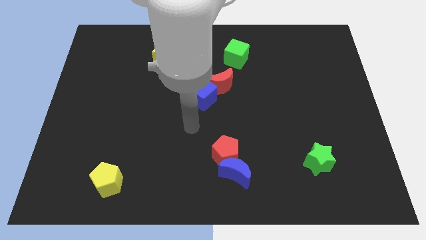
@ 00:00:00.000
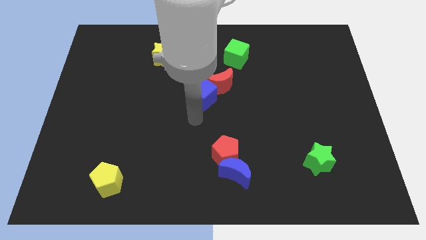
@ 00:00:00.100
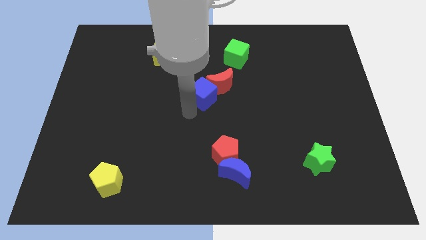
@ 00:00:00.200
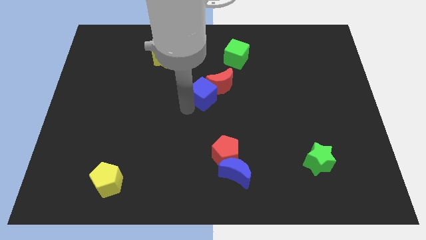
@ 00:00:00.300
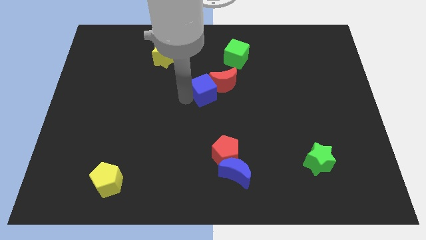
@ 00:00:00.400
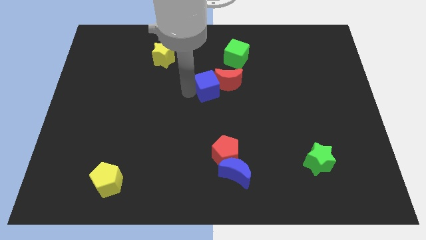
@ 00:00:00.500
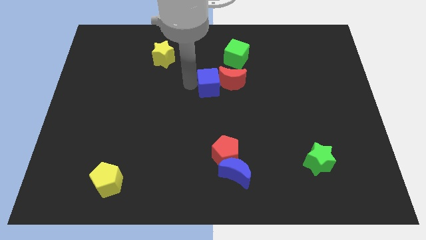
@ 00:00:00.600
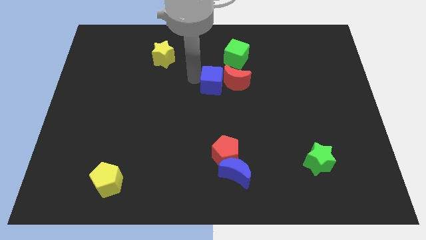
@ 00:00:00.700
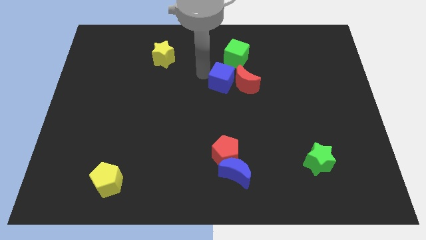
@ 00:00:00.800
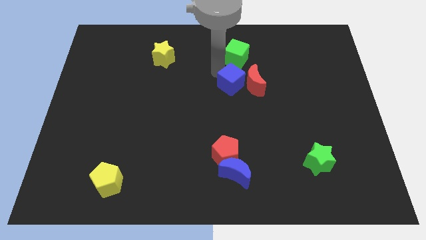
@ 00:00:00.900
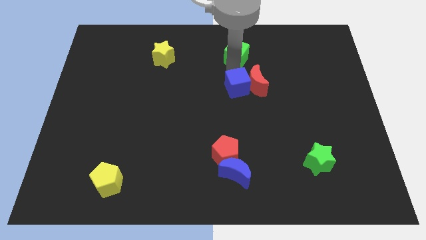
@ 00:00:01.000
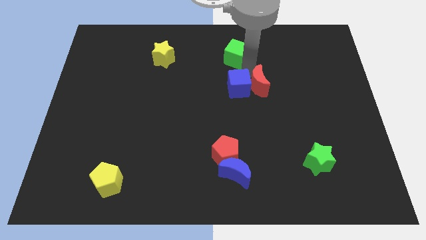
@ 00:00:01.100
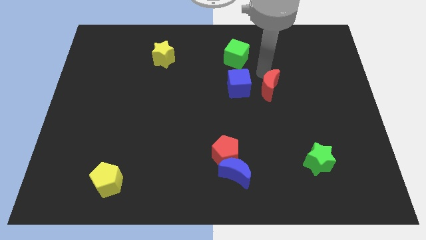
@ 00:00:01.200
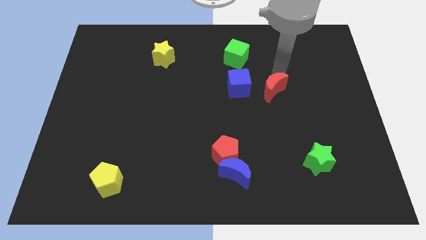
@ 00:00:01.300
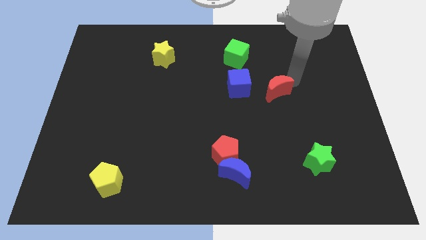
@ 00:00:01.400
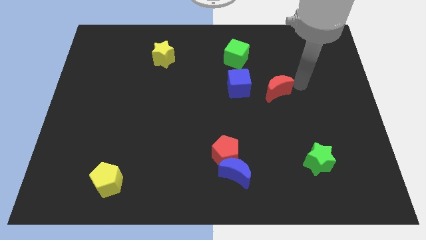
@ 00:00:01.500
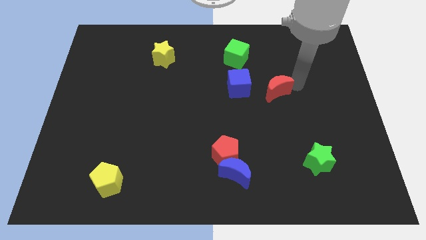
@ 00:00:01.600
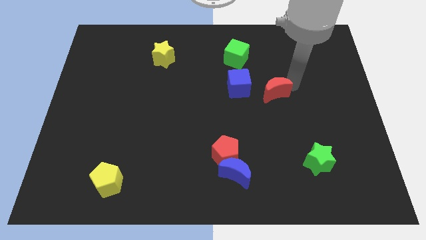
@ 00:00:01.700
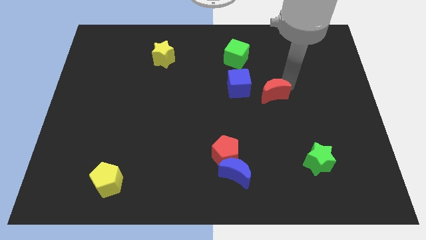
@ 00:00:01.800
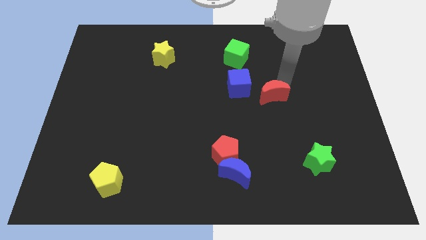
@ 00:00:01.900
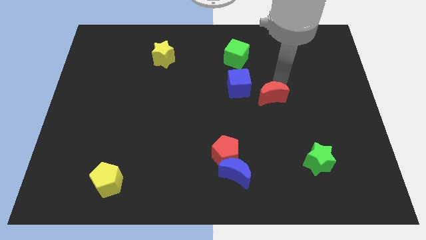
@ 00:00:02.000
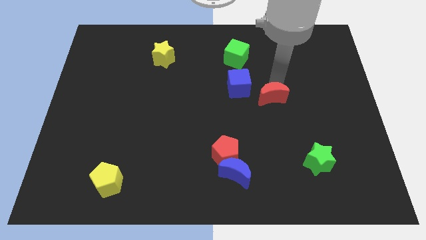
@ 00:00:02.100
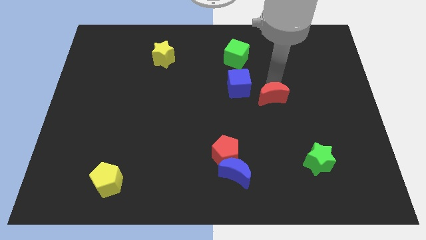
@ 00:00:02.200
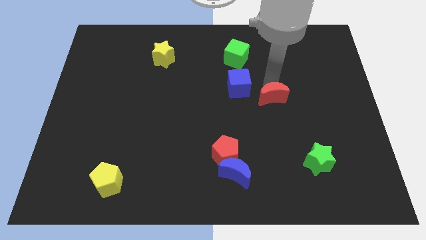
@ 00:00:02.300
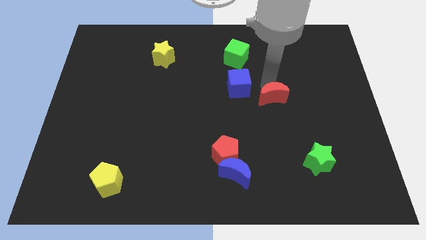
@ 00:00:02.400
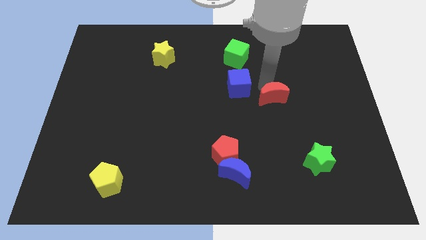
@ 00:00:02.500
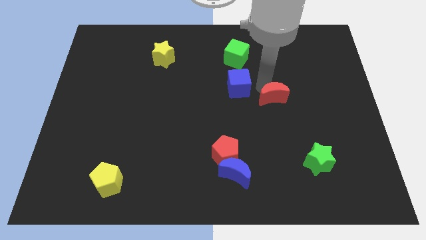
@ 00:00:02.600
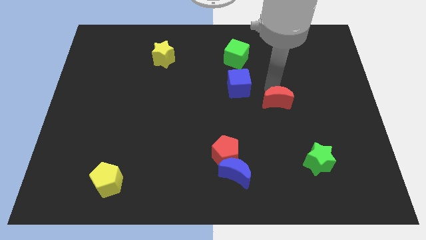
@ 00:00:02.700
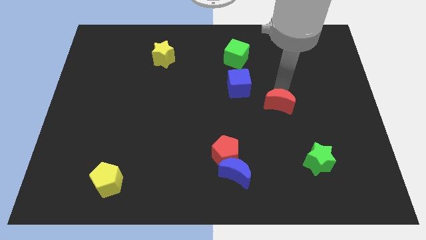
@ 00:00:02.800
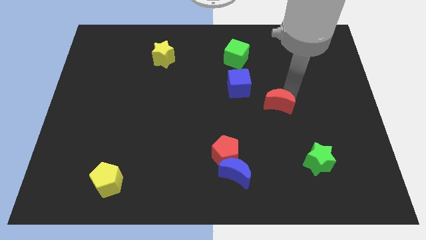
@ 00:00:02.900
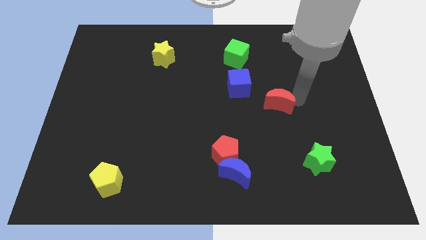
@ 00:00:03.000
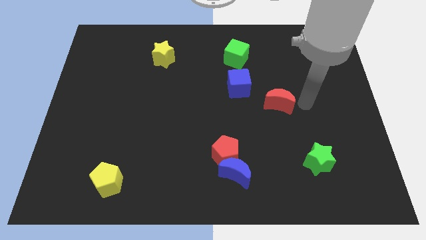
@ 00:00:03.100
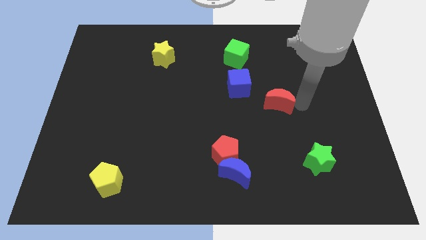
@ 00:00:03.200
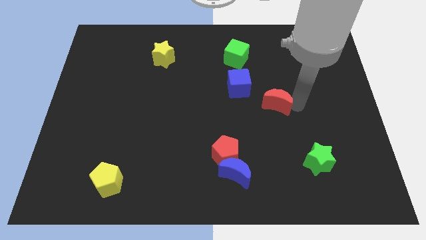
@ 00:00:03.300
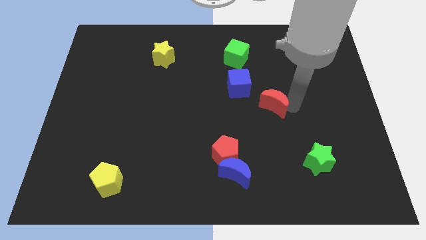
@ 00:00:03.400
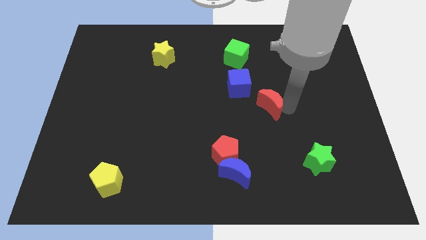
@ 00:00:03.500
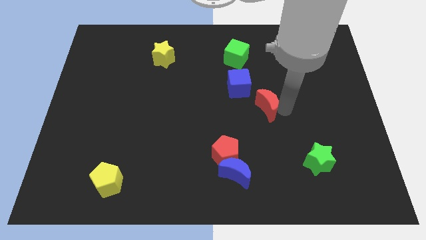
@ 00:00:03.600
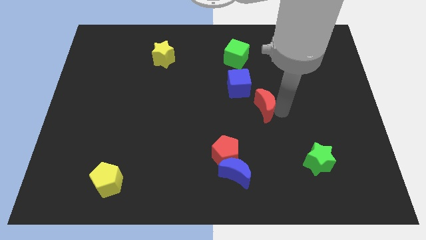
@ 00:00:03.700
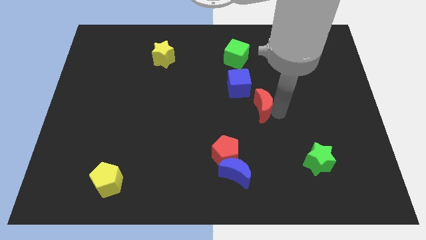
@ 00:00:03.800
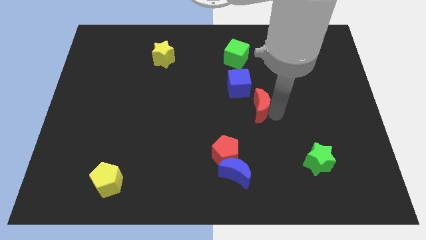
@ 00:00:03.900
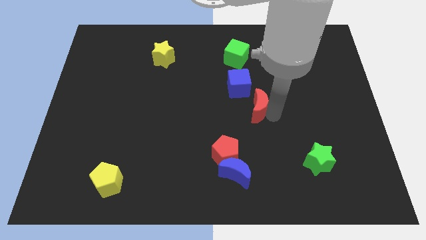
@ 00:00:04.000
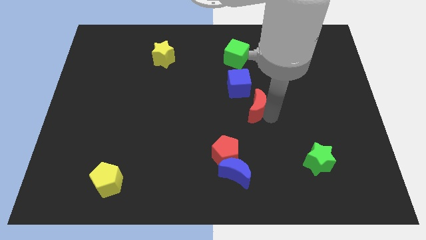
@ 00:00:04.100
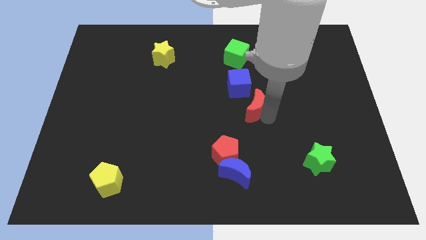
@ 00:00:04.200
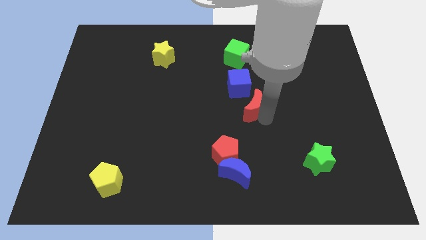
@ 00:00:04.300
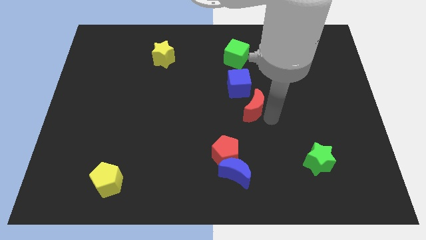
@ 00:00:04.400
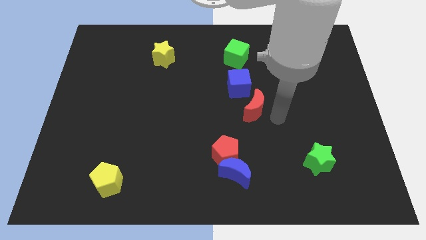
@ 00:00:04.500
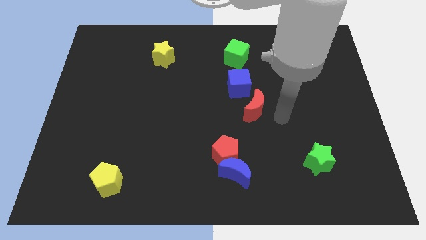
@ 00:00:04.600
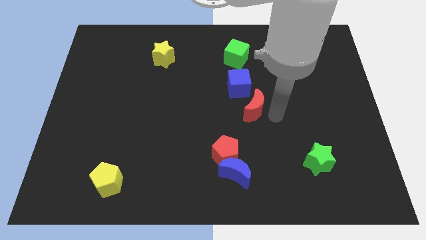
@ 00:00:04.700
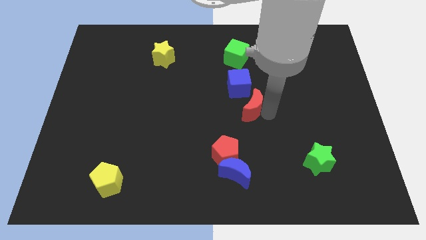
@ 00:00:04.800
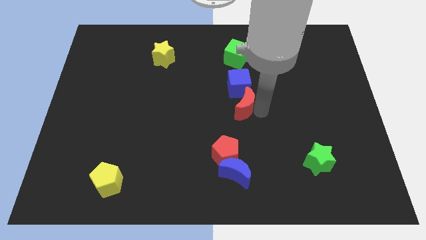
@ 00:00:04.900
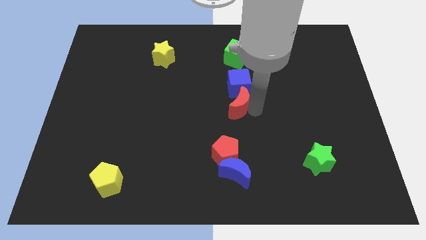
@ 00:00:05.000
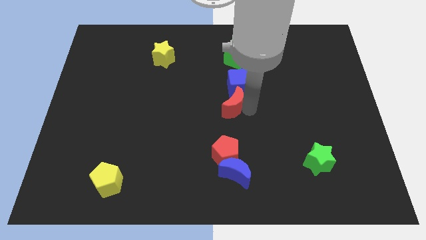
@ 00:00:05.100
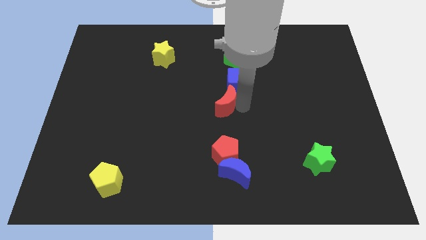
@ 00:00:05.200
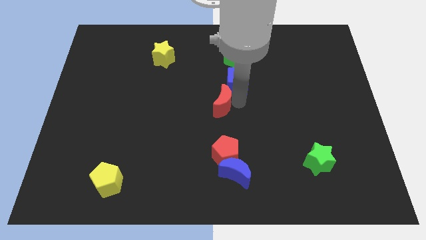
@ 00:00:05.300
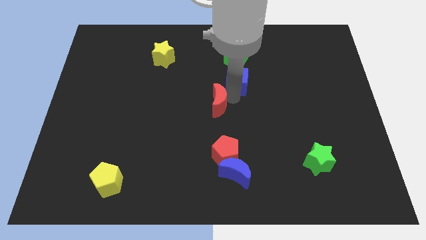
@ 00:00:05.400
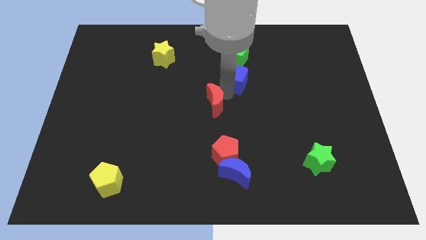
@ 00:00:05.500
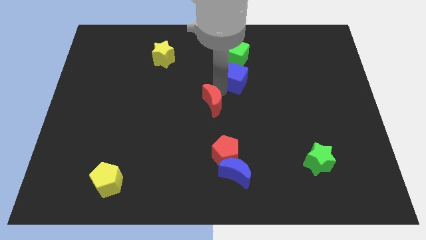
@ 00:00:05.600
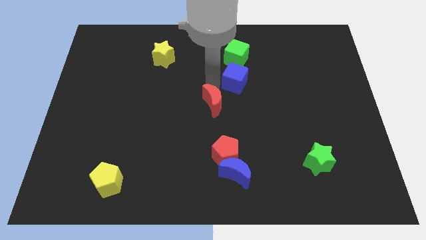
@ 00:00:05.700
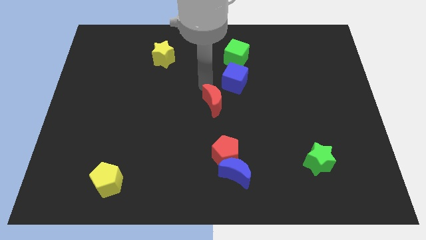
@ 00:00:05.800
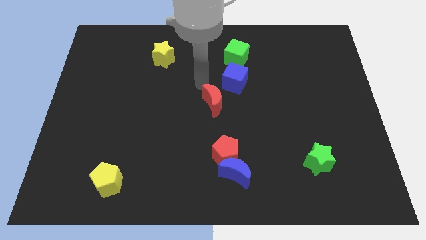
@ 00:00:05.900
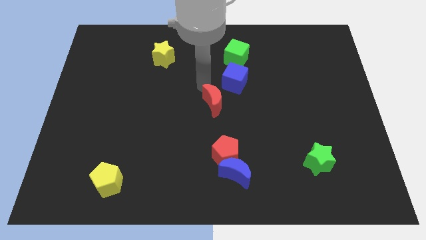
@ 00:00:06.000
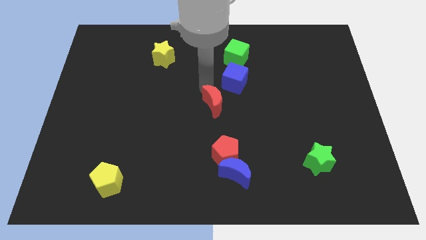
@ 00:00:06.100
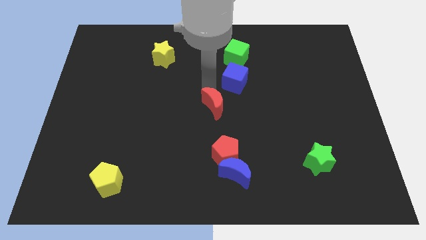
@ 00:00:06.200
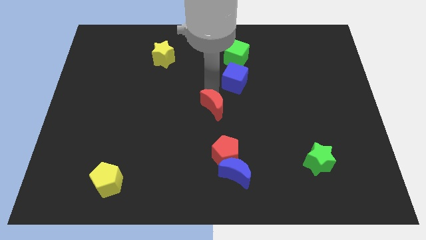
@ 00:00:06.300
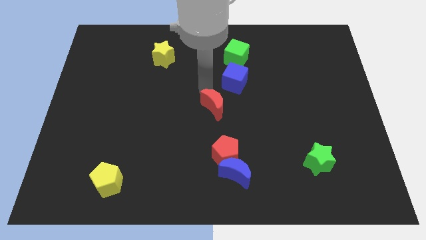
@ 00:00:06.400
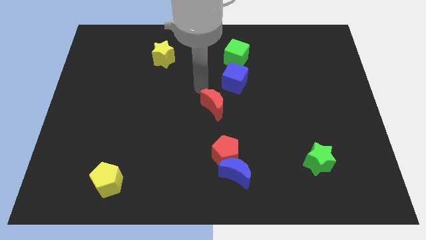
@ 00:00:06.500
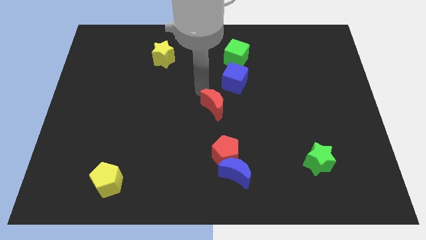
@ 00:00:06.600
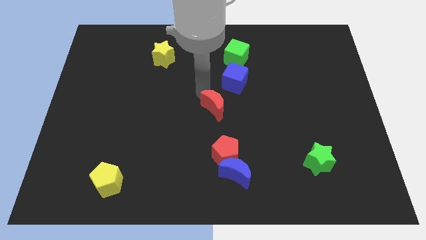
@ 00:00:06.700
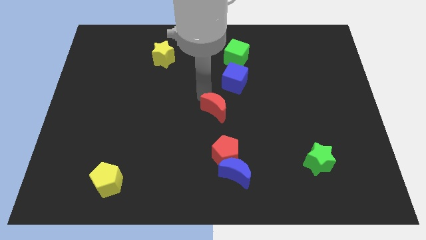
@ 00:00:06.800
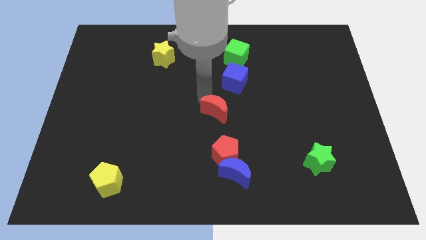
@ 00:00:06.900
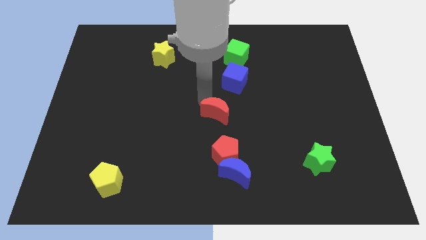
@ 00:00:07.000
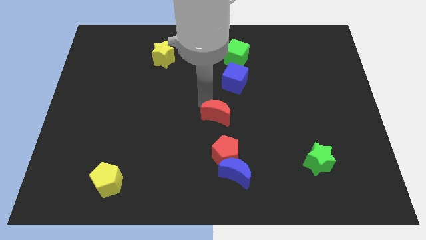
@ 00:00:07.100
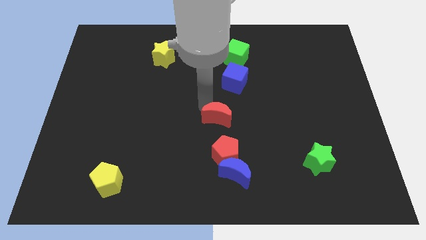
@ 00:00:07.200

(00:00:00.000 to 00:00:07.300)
move the red moon to the top side of the blue moon
